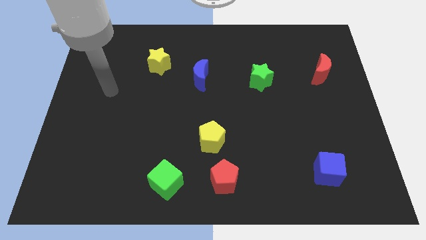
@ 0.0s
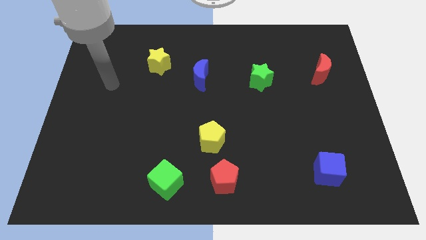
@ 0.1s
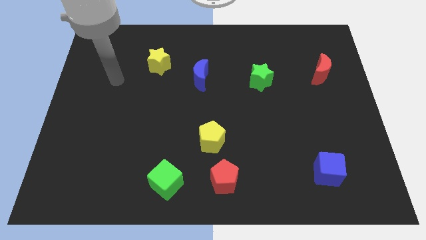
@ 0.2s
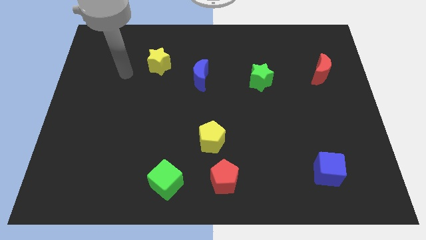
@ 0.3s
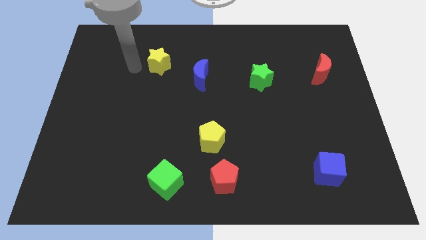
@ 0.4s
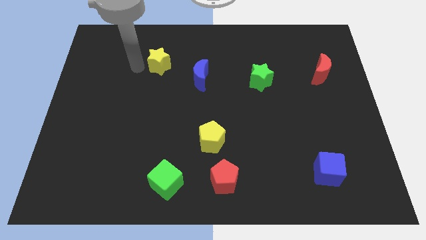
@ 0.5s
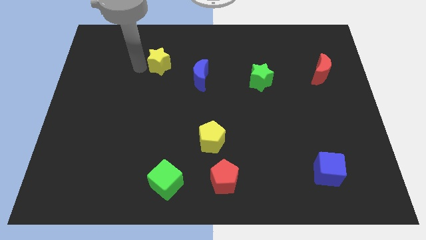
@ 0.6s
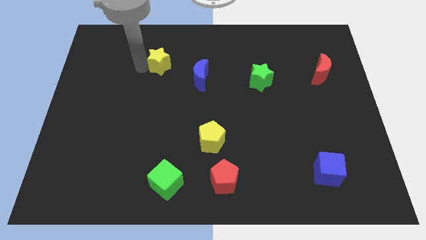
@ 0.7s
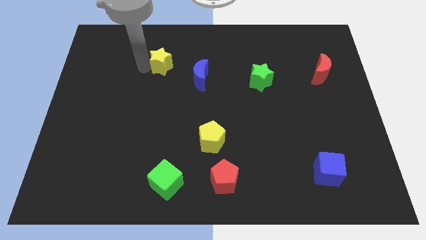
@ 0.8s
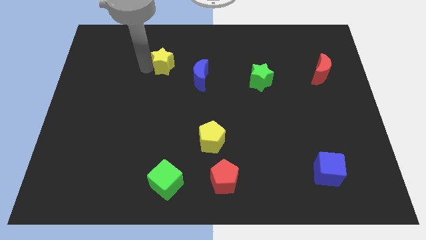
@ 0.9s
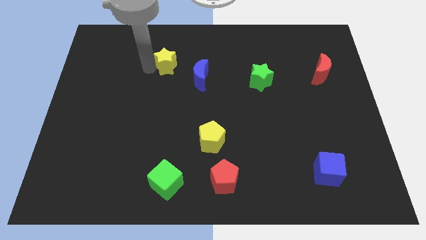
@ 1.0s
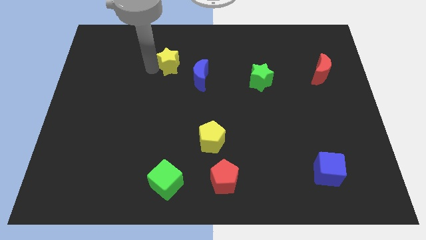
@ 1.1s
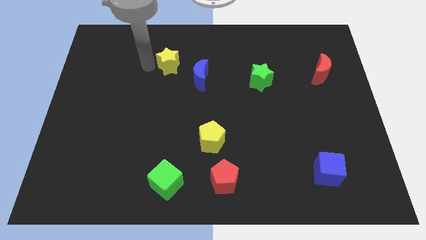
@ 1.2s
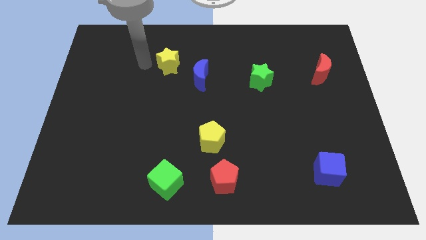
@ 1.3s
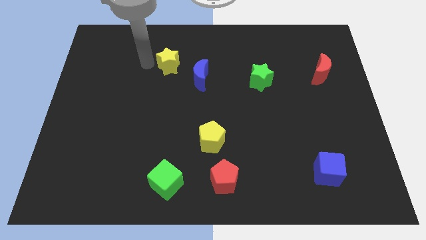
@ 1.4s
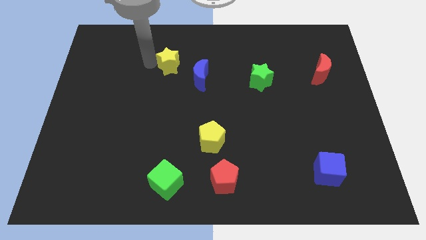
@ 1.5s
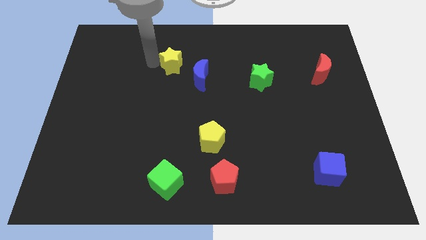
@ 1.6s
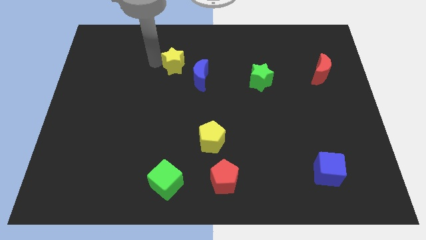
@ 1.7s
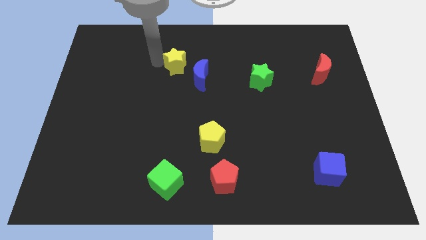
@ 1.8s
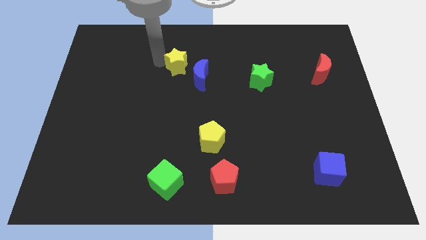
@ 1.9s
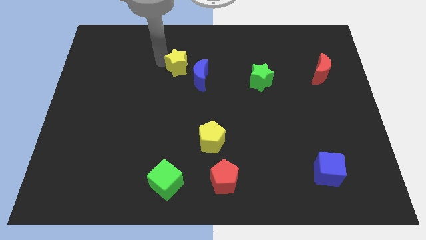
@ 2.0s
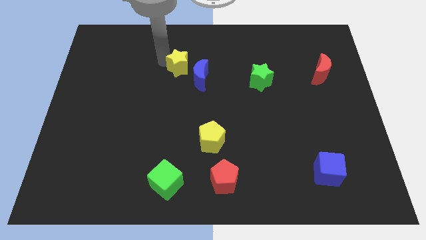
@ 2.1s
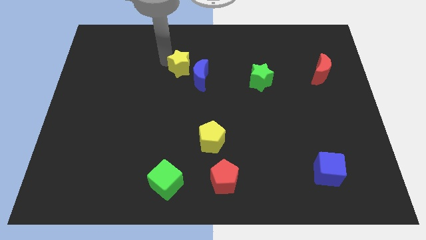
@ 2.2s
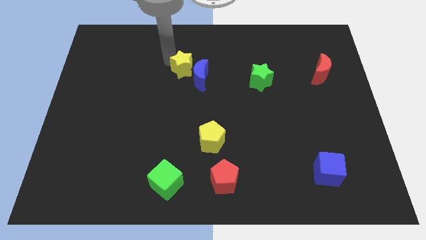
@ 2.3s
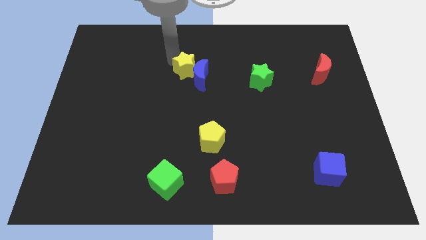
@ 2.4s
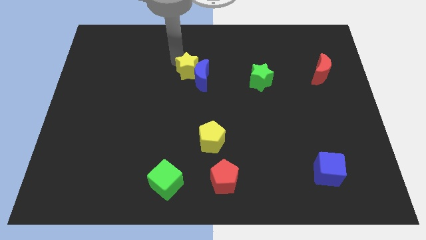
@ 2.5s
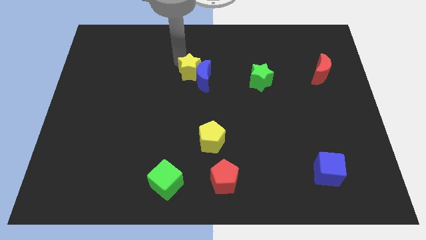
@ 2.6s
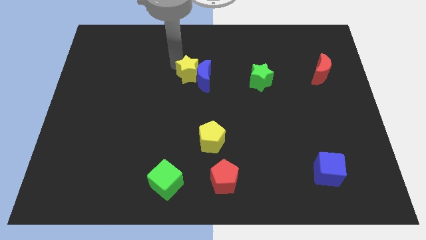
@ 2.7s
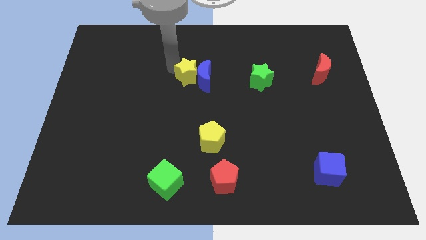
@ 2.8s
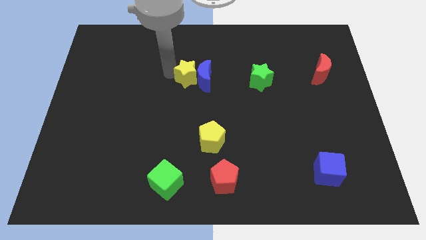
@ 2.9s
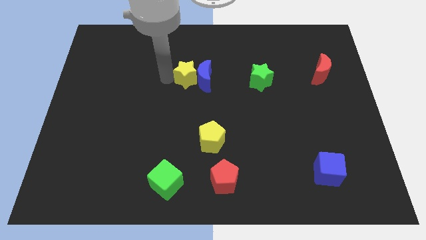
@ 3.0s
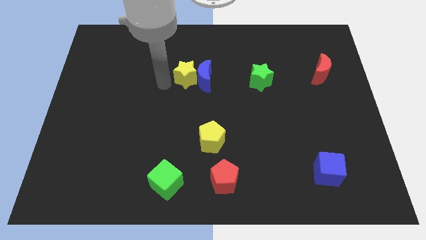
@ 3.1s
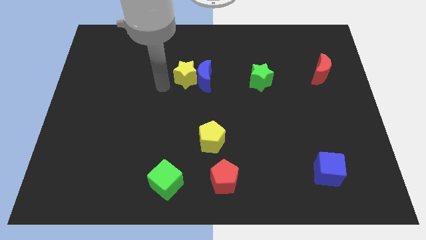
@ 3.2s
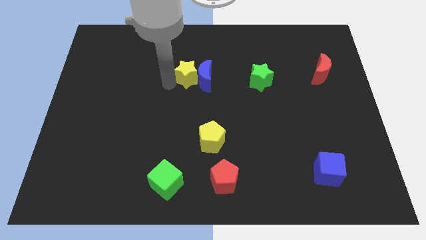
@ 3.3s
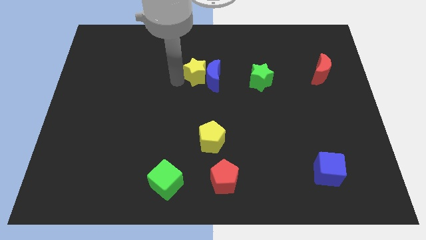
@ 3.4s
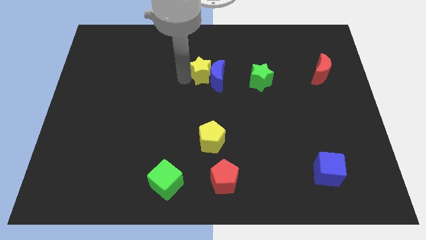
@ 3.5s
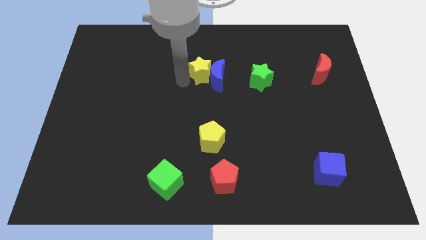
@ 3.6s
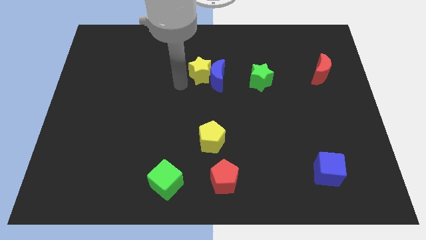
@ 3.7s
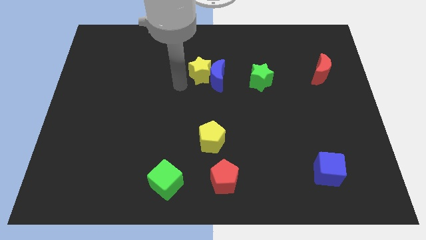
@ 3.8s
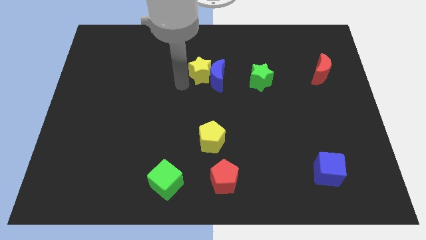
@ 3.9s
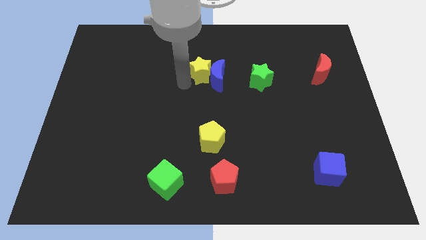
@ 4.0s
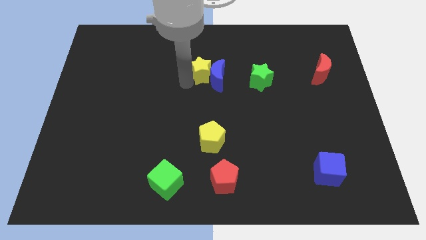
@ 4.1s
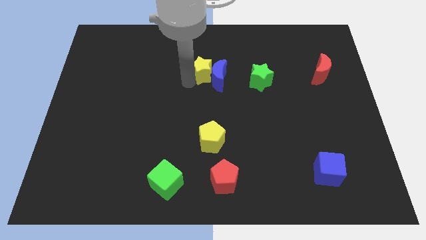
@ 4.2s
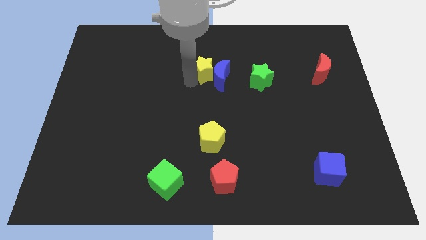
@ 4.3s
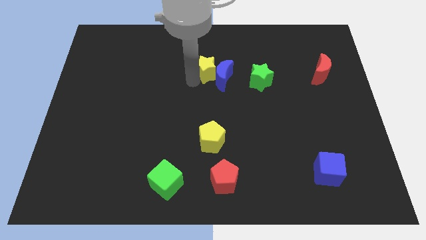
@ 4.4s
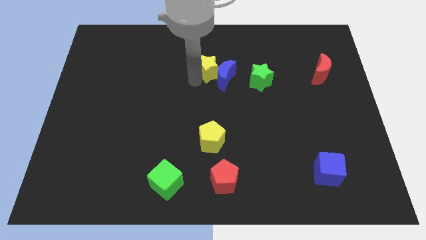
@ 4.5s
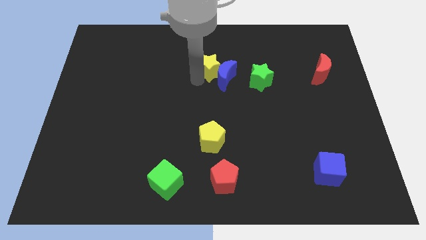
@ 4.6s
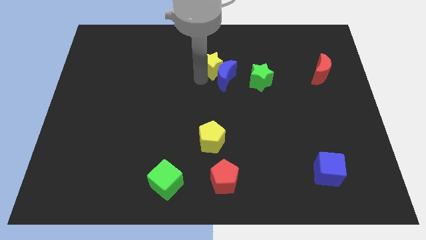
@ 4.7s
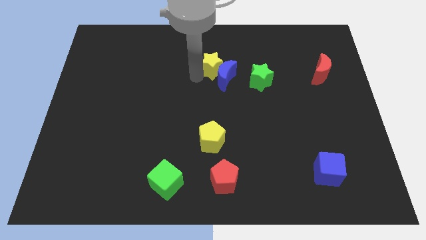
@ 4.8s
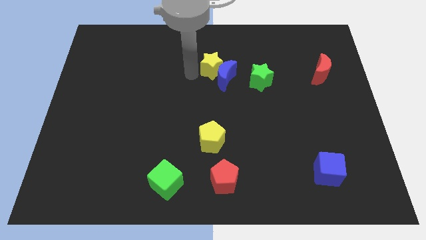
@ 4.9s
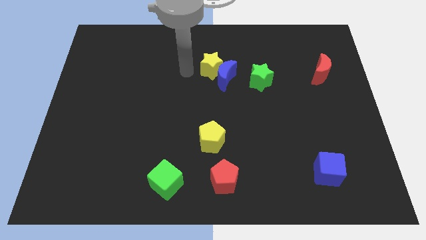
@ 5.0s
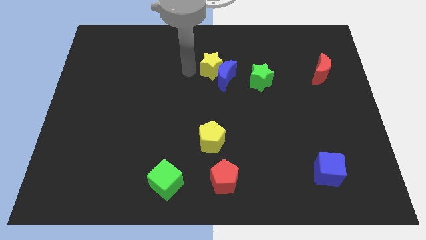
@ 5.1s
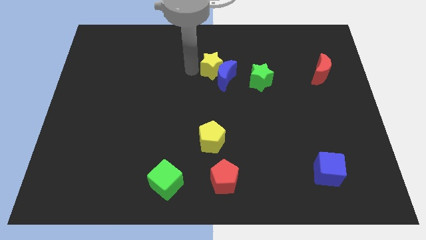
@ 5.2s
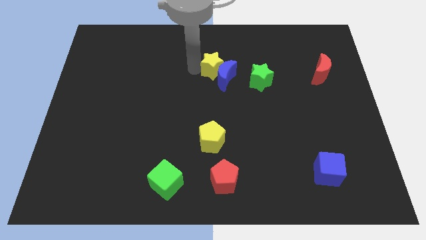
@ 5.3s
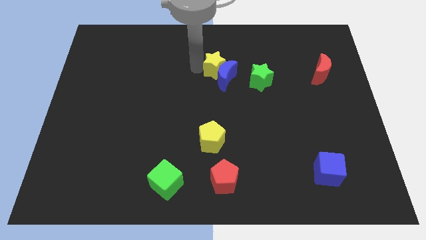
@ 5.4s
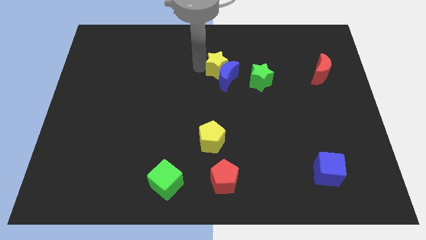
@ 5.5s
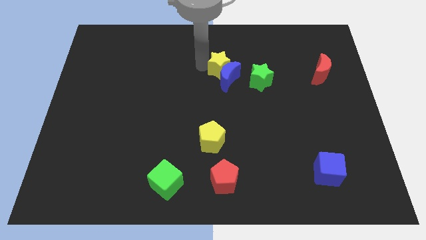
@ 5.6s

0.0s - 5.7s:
put the yellow star diagonally up and to the left of the green star

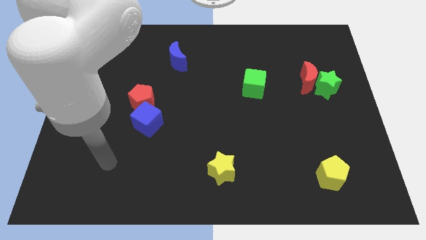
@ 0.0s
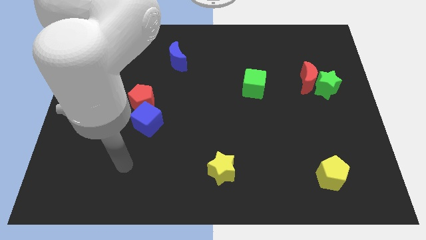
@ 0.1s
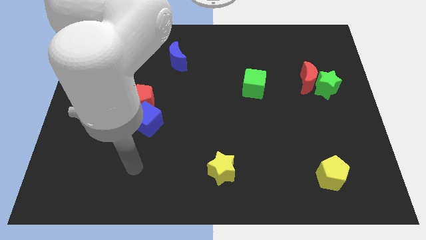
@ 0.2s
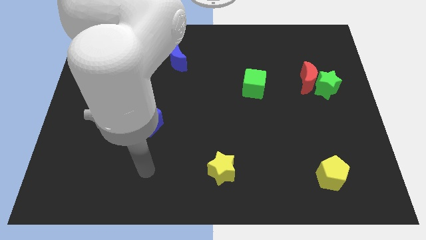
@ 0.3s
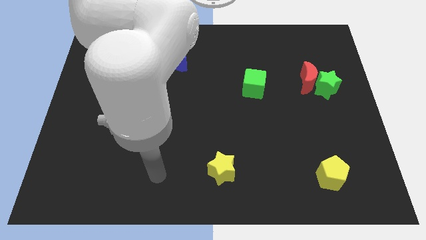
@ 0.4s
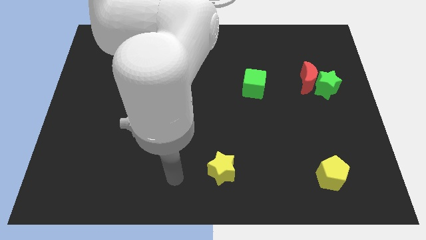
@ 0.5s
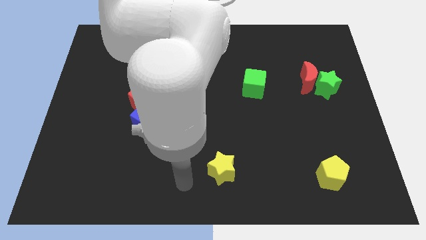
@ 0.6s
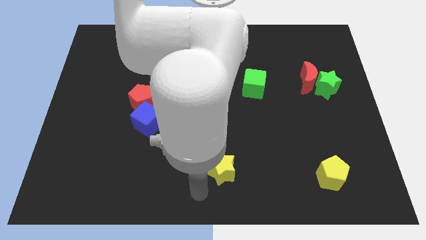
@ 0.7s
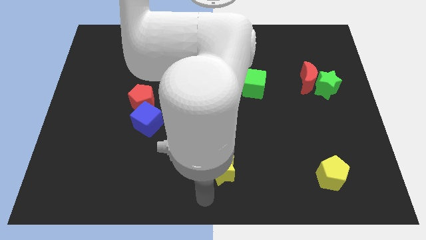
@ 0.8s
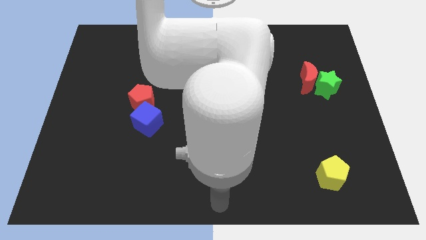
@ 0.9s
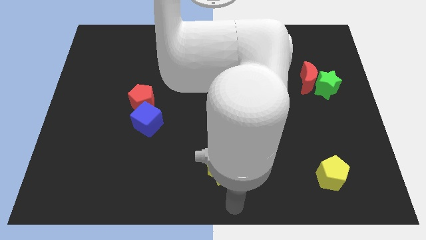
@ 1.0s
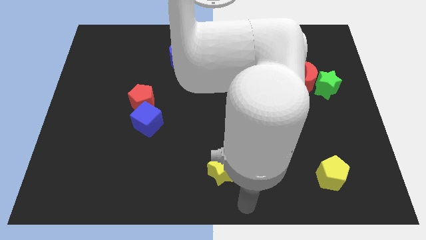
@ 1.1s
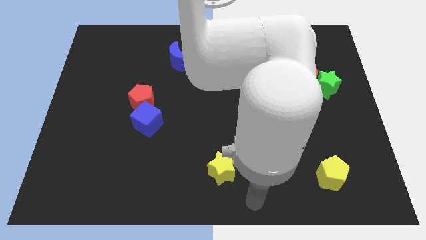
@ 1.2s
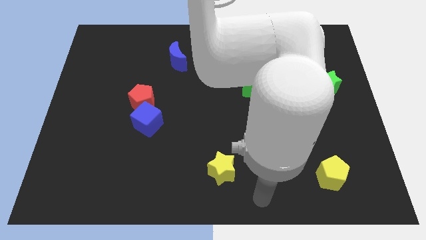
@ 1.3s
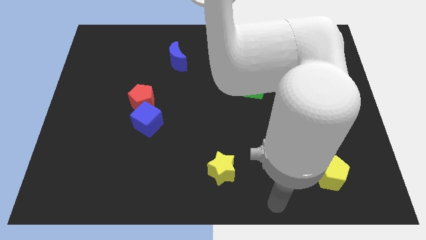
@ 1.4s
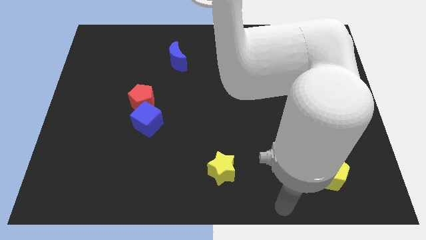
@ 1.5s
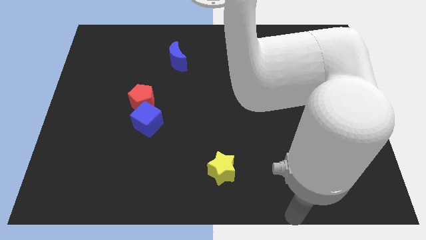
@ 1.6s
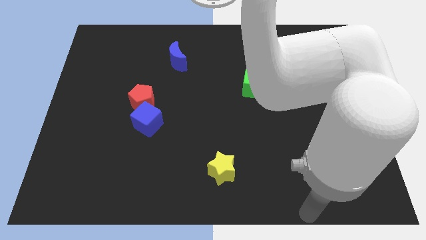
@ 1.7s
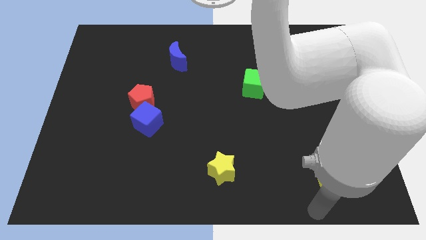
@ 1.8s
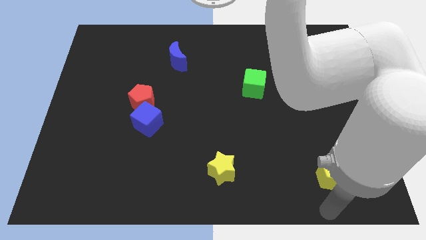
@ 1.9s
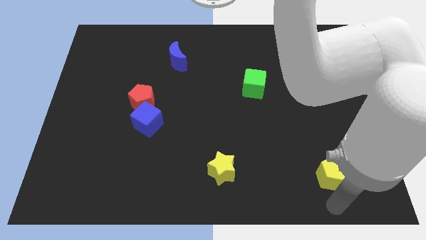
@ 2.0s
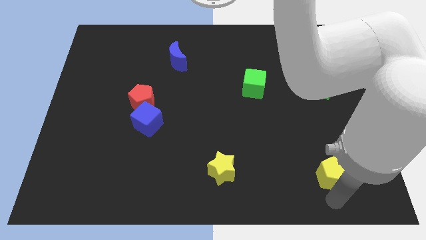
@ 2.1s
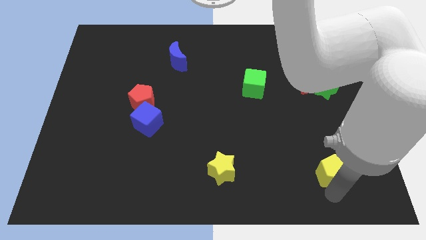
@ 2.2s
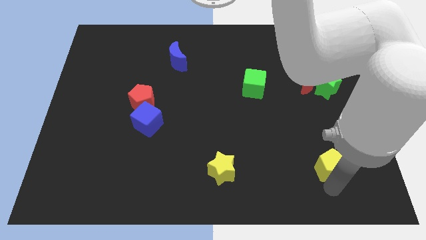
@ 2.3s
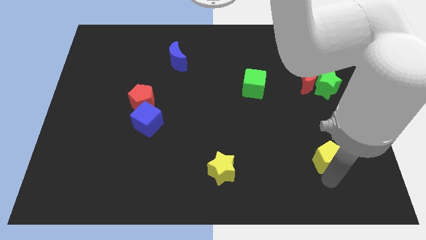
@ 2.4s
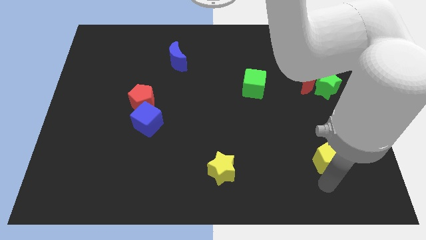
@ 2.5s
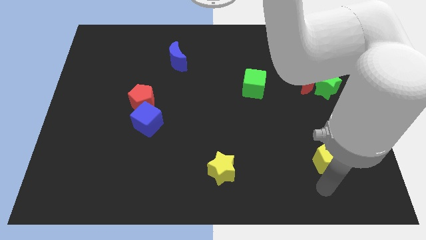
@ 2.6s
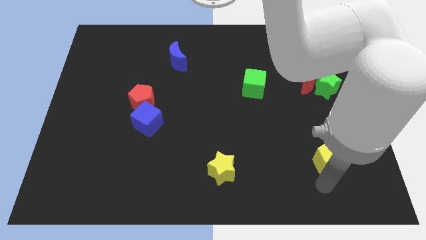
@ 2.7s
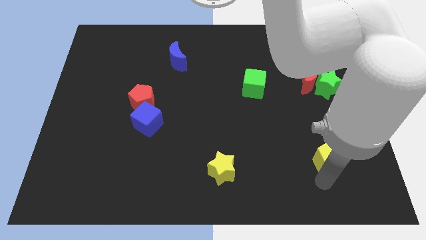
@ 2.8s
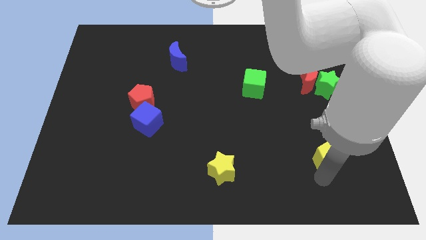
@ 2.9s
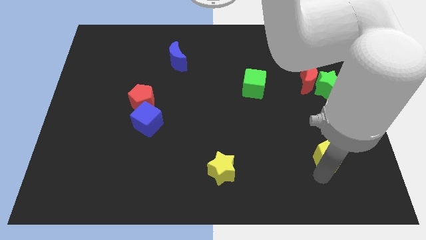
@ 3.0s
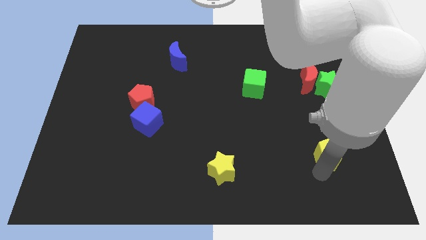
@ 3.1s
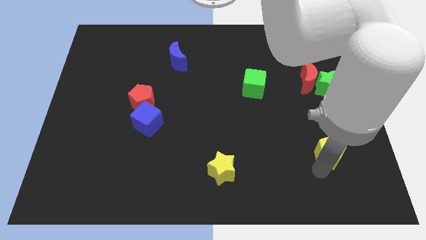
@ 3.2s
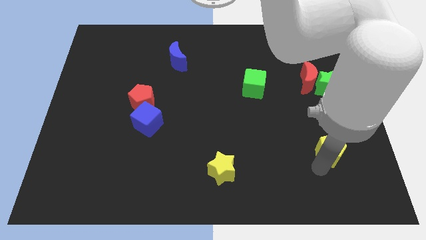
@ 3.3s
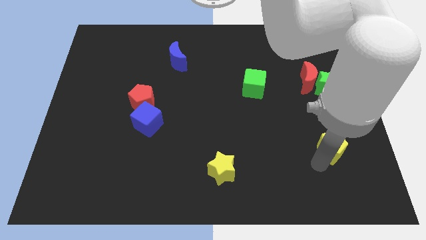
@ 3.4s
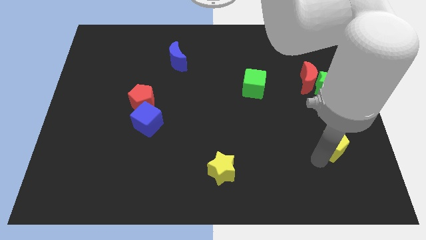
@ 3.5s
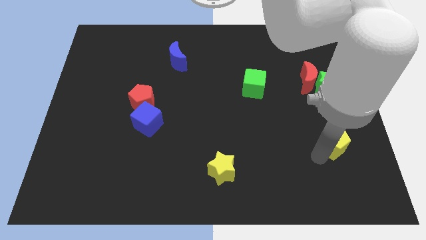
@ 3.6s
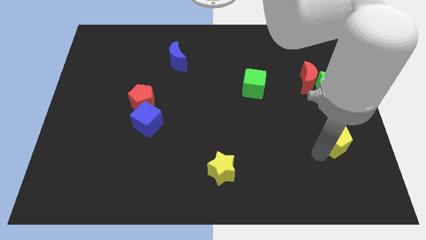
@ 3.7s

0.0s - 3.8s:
move the yellow pentagon to the bottom side of the green star
